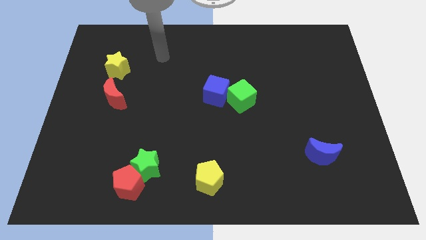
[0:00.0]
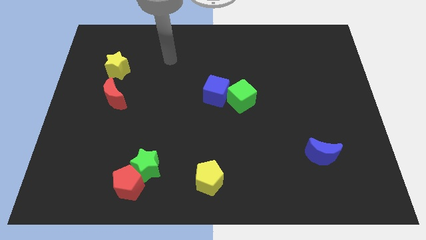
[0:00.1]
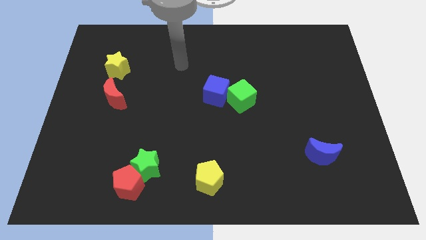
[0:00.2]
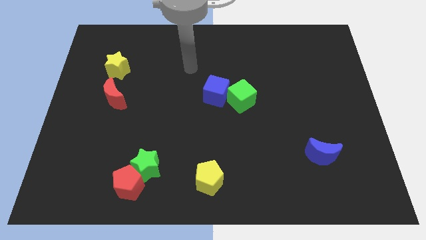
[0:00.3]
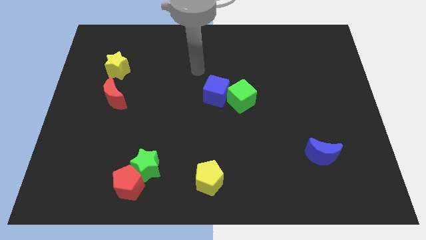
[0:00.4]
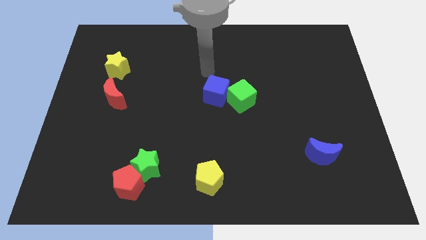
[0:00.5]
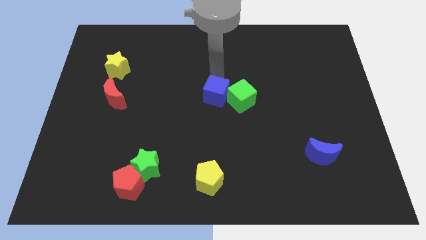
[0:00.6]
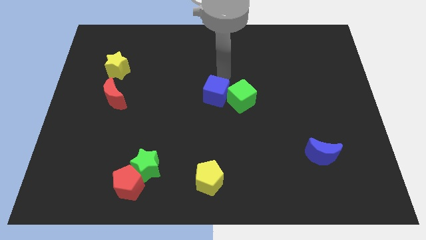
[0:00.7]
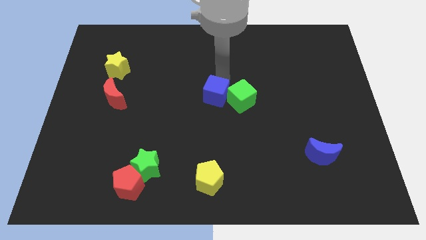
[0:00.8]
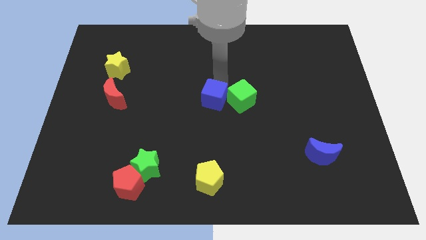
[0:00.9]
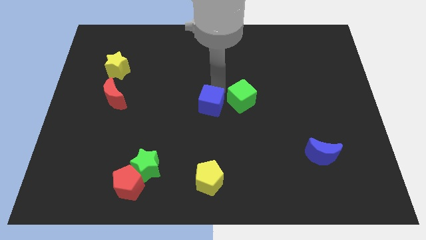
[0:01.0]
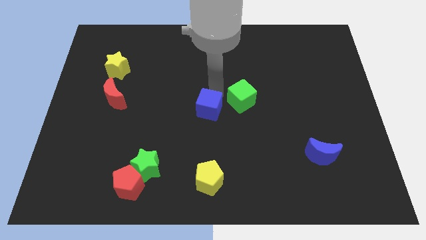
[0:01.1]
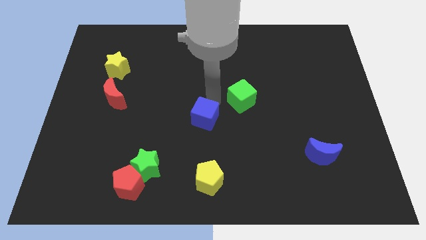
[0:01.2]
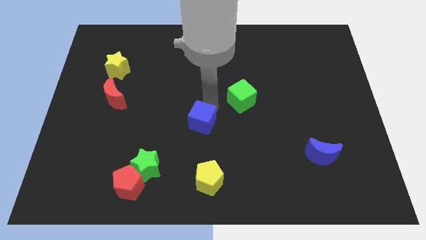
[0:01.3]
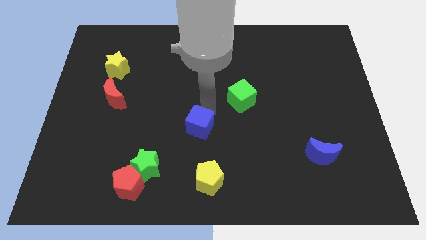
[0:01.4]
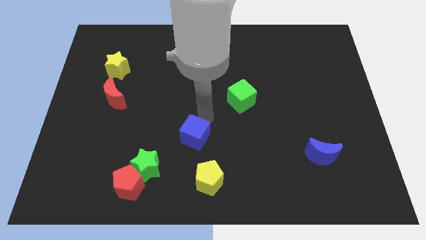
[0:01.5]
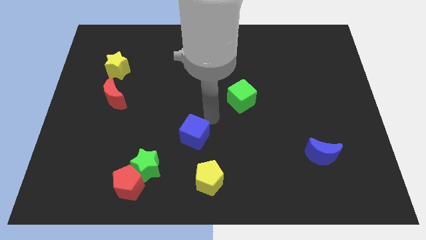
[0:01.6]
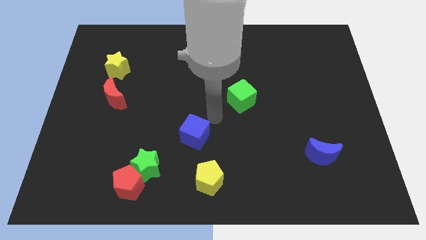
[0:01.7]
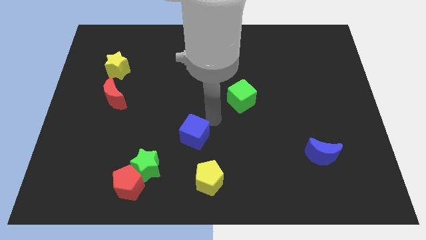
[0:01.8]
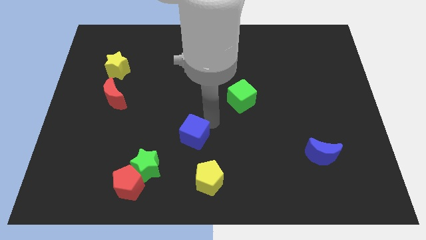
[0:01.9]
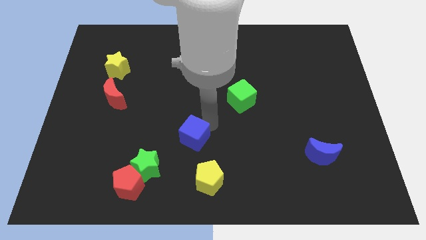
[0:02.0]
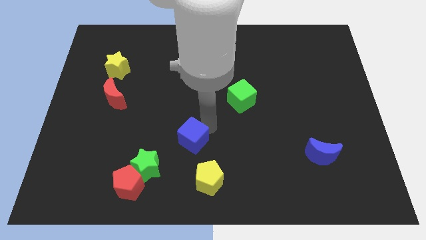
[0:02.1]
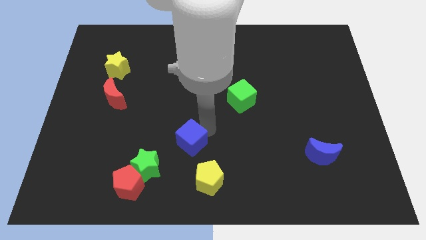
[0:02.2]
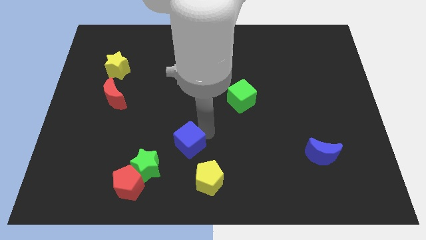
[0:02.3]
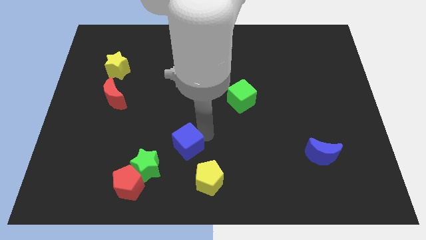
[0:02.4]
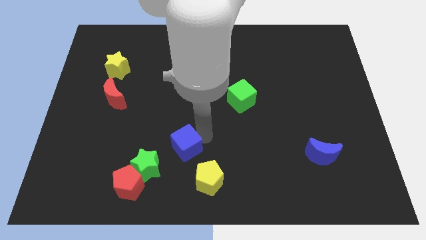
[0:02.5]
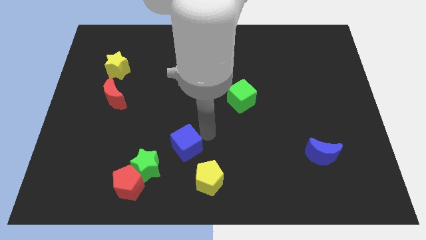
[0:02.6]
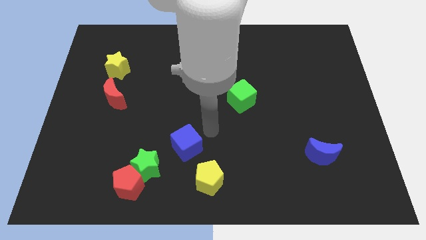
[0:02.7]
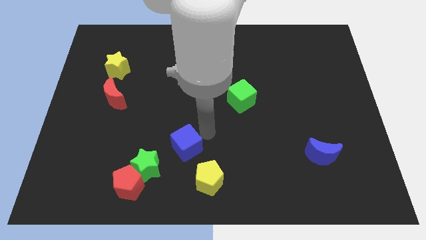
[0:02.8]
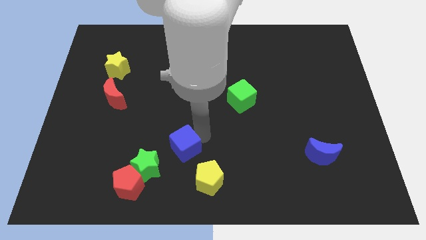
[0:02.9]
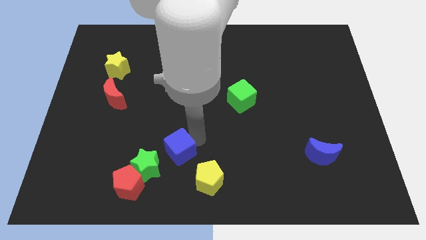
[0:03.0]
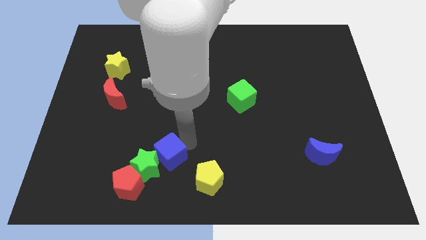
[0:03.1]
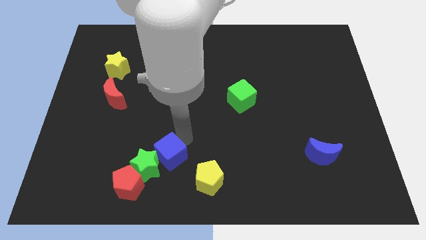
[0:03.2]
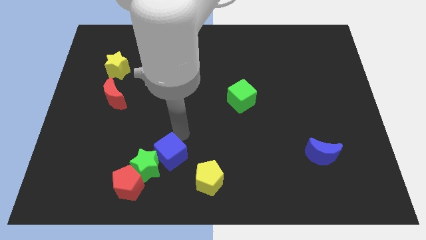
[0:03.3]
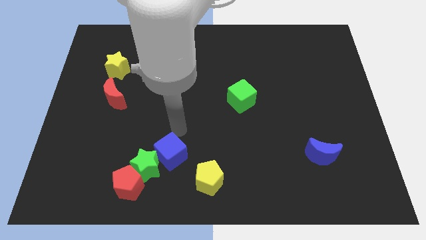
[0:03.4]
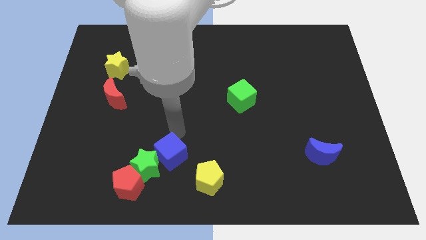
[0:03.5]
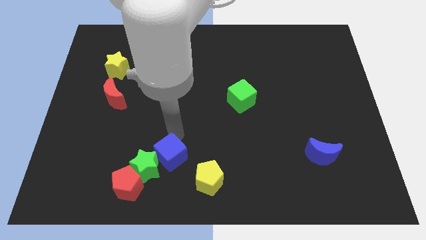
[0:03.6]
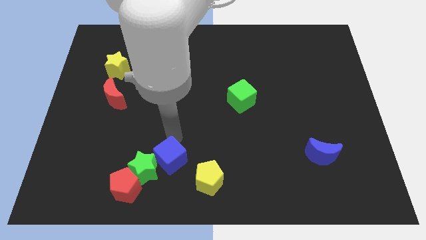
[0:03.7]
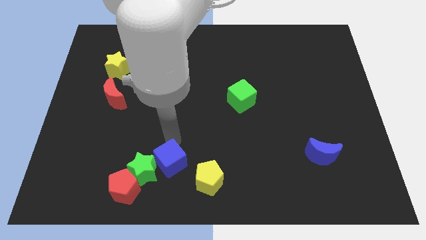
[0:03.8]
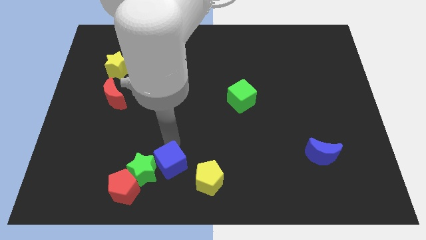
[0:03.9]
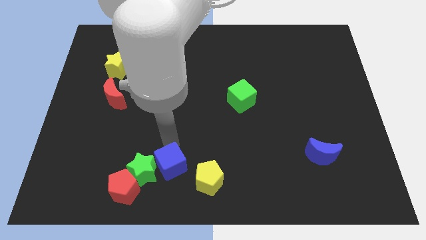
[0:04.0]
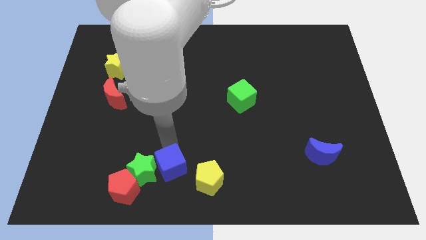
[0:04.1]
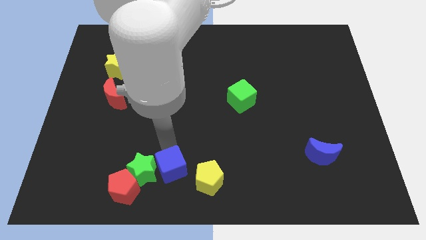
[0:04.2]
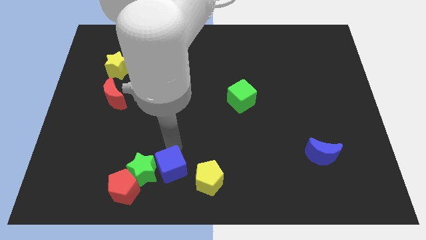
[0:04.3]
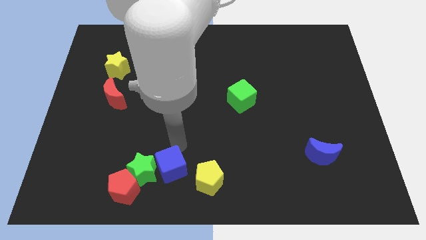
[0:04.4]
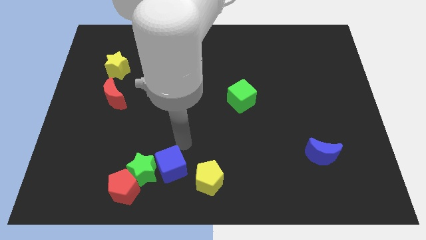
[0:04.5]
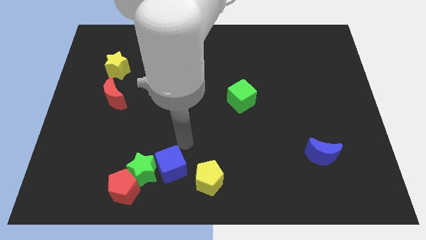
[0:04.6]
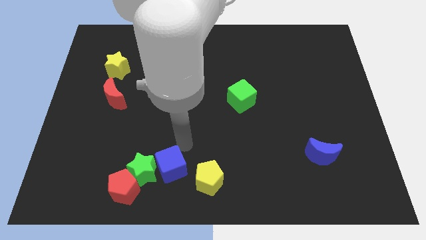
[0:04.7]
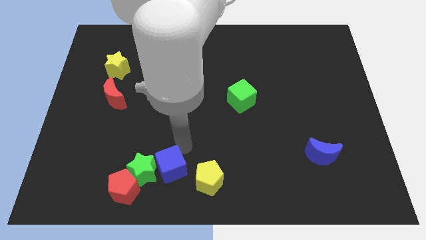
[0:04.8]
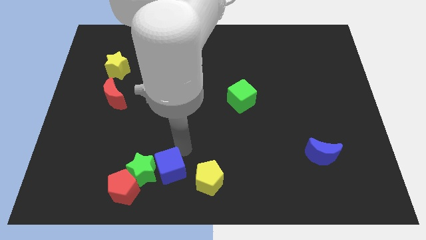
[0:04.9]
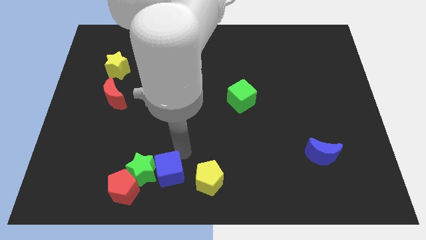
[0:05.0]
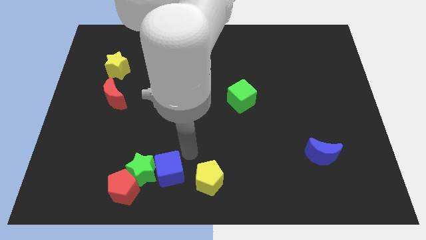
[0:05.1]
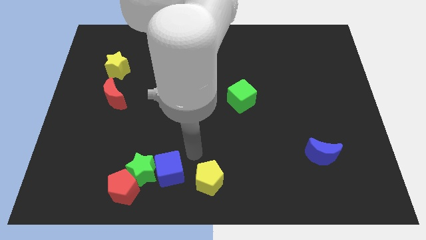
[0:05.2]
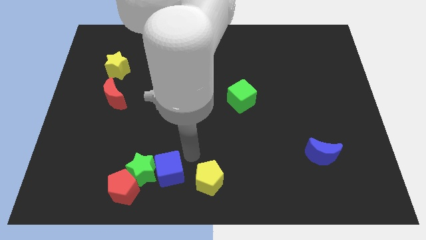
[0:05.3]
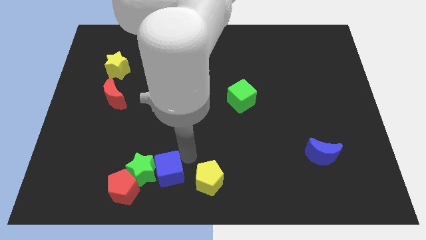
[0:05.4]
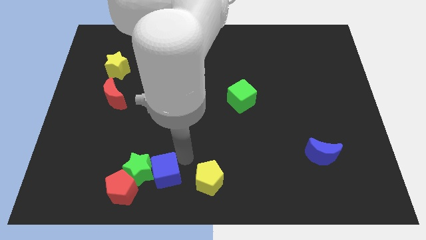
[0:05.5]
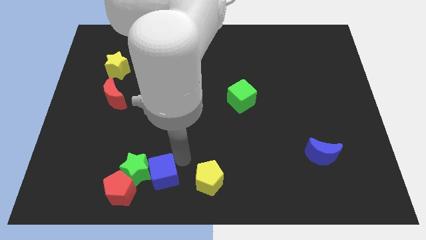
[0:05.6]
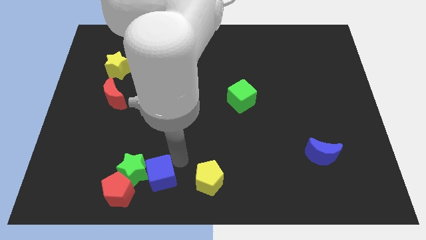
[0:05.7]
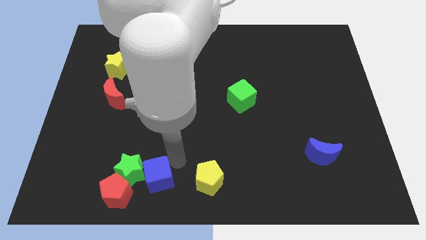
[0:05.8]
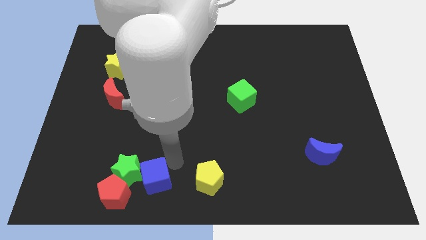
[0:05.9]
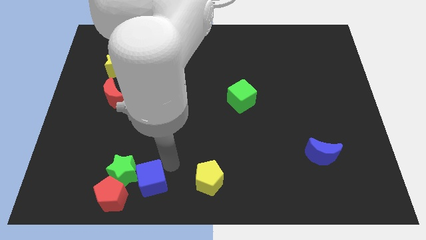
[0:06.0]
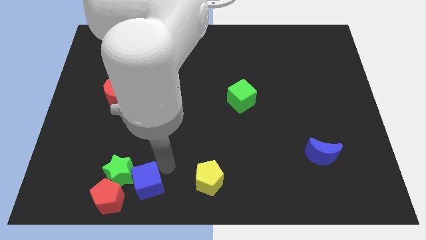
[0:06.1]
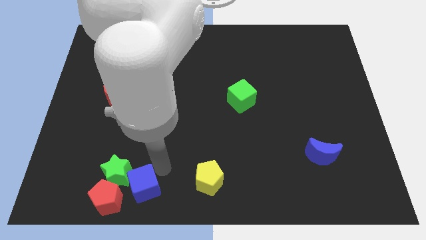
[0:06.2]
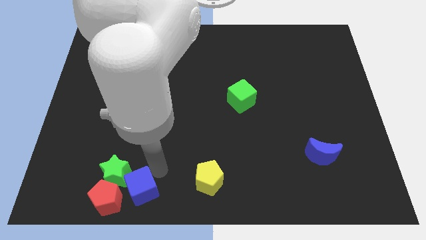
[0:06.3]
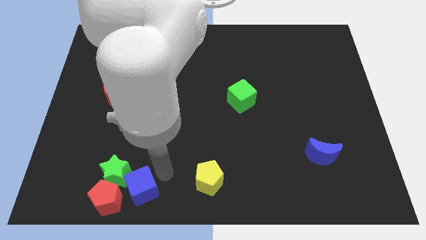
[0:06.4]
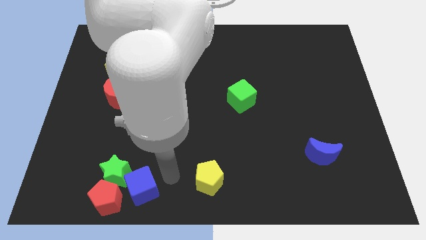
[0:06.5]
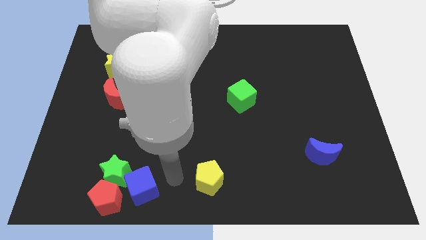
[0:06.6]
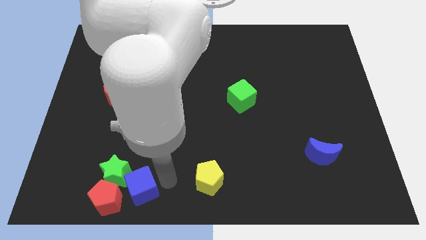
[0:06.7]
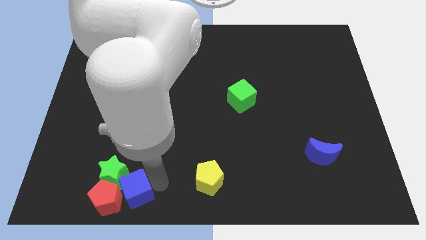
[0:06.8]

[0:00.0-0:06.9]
slide the blue cube close to the red pentagon

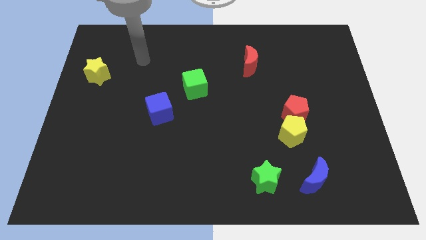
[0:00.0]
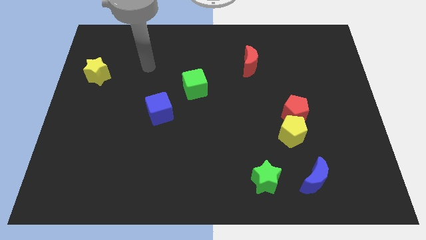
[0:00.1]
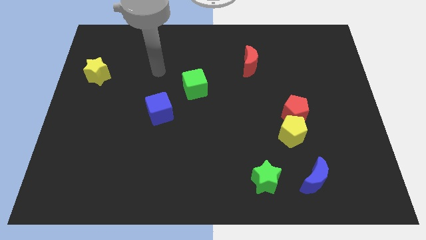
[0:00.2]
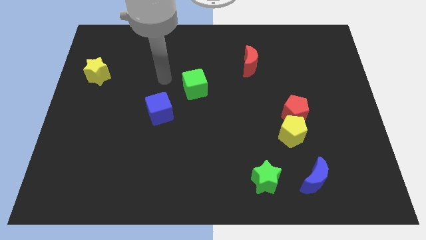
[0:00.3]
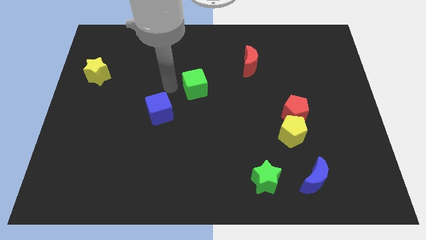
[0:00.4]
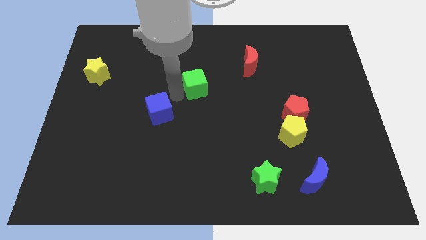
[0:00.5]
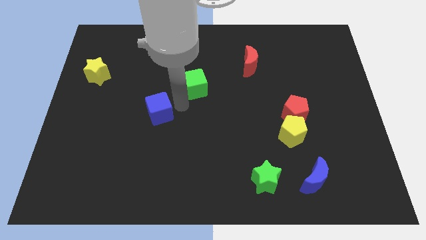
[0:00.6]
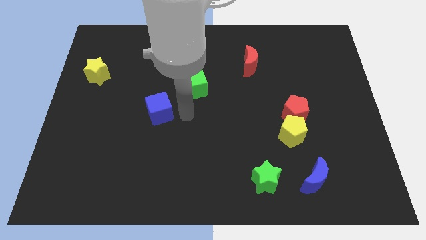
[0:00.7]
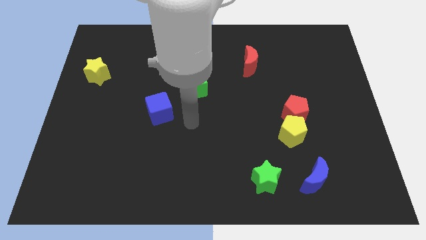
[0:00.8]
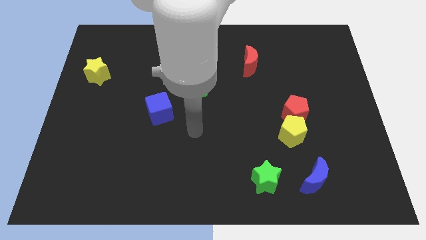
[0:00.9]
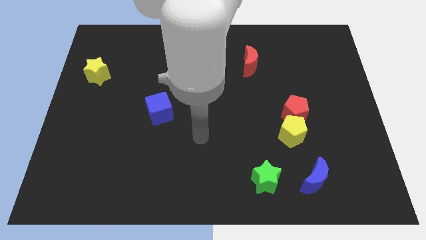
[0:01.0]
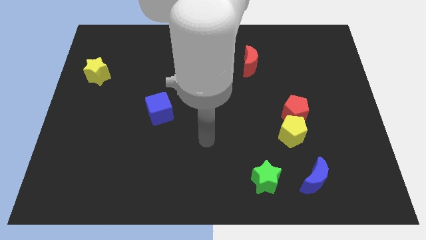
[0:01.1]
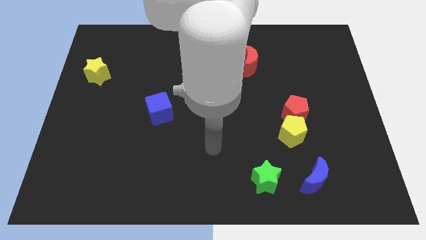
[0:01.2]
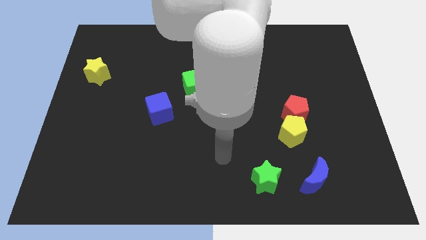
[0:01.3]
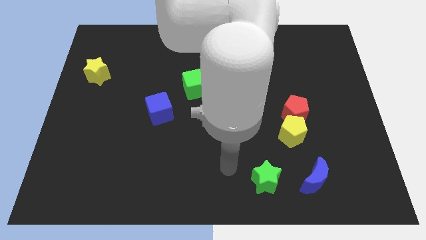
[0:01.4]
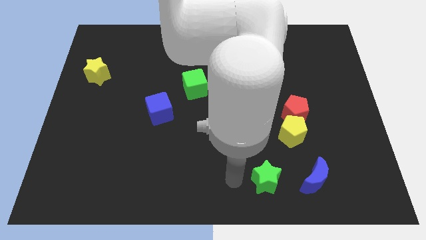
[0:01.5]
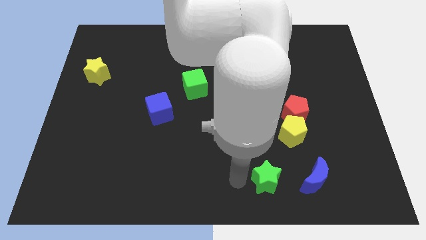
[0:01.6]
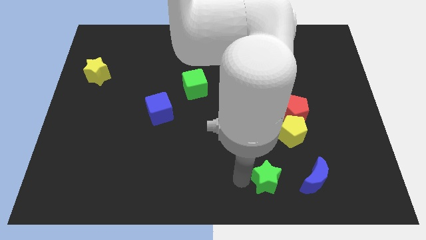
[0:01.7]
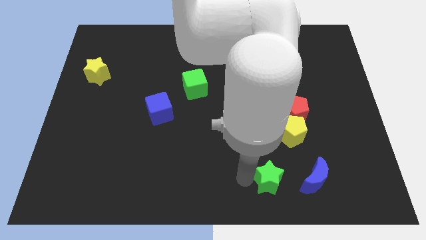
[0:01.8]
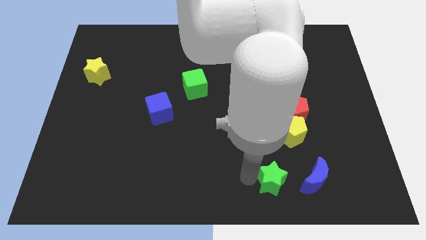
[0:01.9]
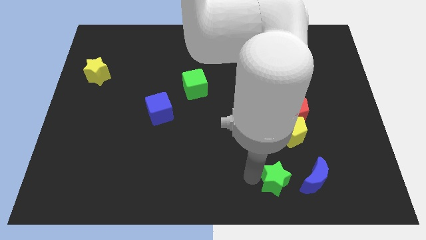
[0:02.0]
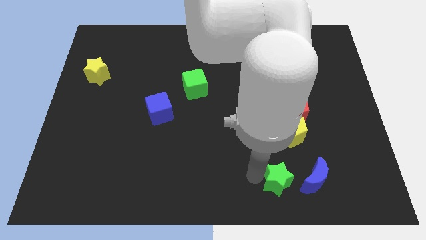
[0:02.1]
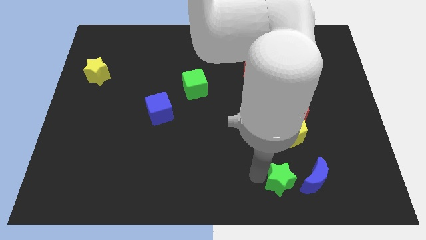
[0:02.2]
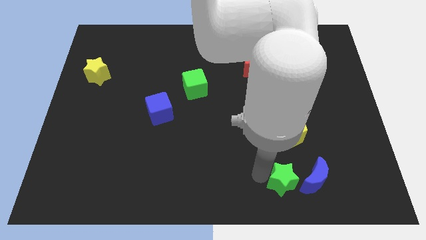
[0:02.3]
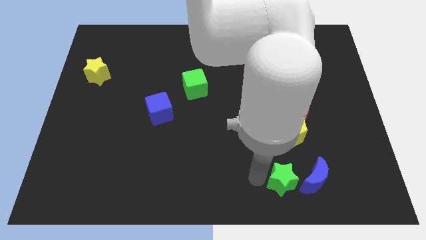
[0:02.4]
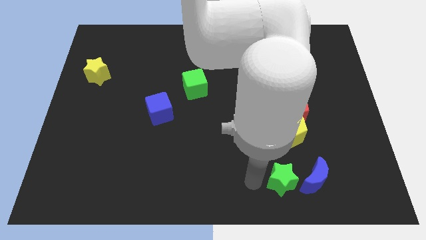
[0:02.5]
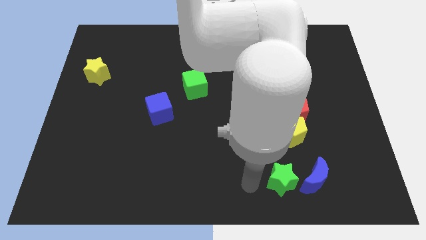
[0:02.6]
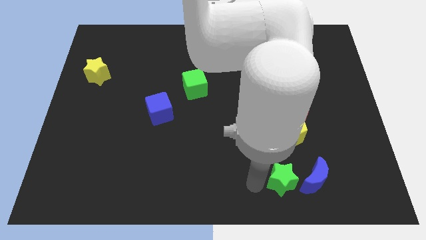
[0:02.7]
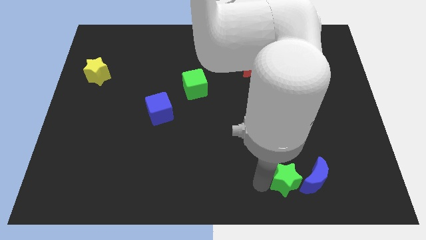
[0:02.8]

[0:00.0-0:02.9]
slide the green star close to the blue moon
